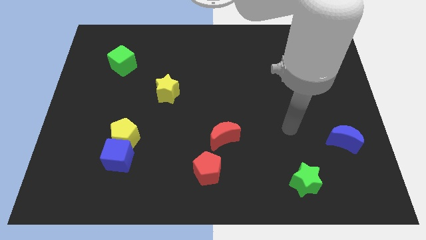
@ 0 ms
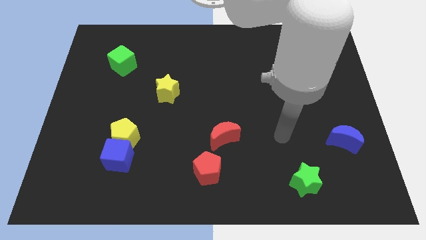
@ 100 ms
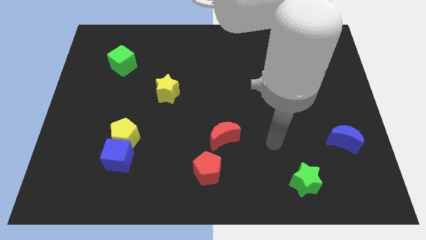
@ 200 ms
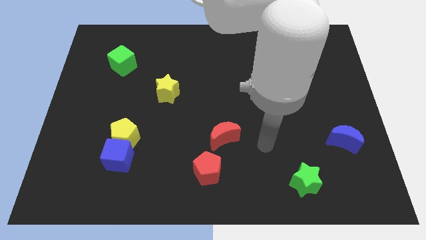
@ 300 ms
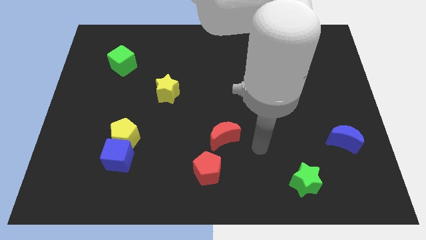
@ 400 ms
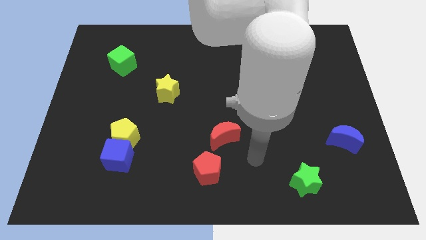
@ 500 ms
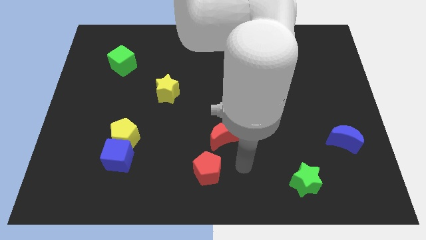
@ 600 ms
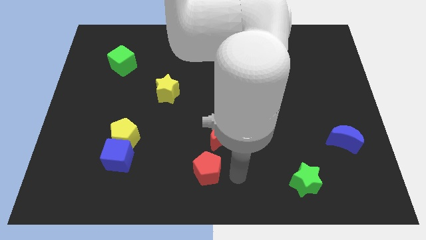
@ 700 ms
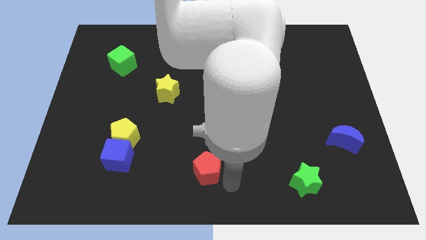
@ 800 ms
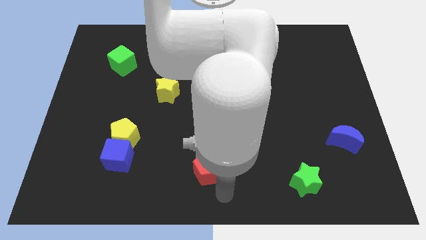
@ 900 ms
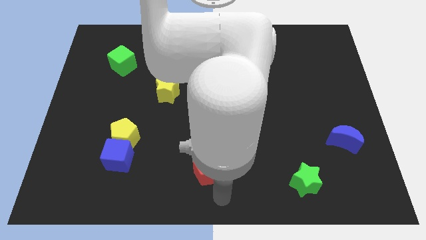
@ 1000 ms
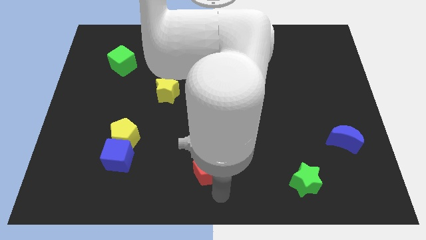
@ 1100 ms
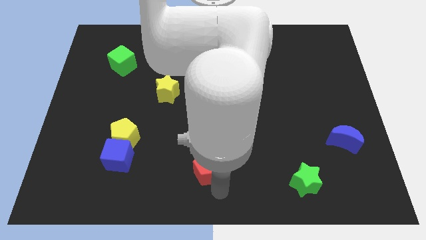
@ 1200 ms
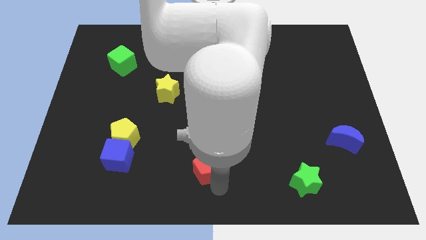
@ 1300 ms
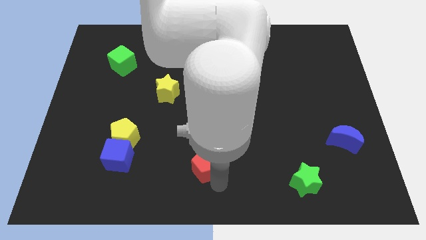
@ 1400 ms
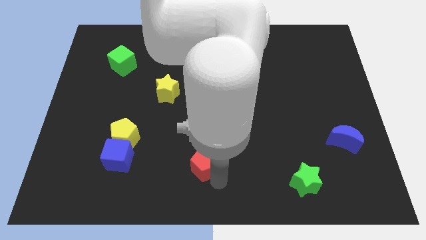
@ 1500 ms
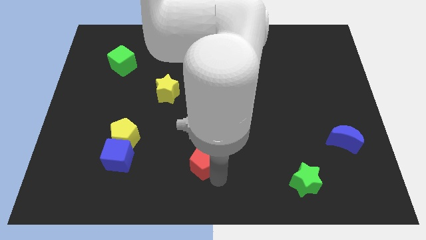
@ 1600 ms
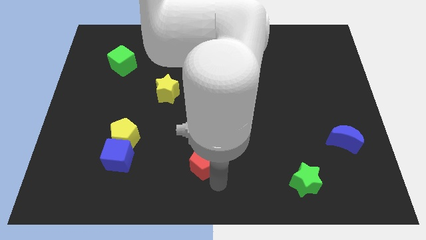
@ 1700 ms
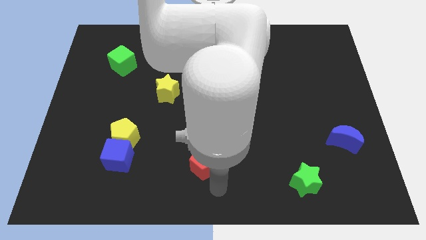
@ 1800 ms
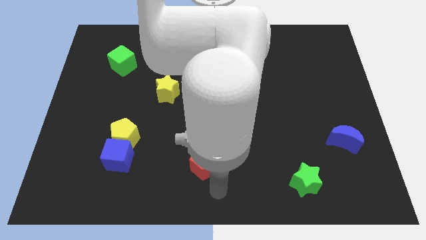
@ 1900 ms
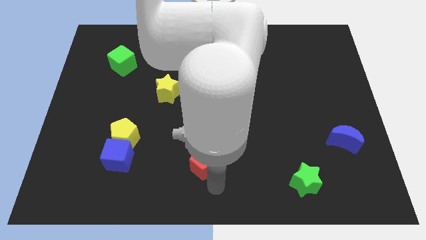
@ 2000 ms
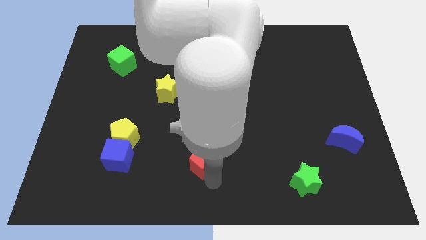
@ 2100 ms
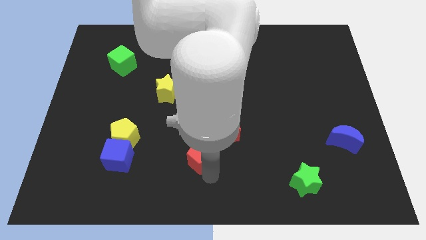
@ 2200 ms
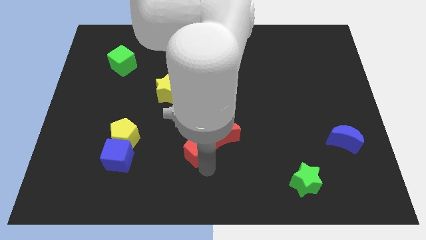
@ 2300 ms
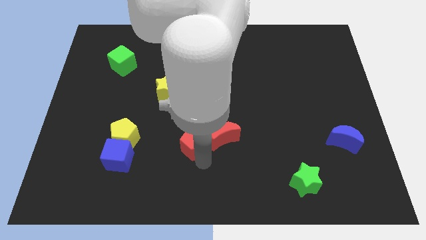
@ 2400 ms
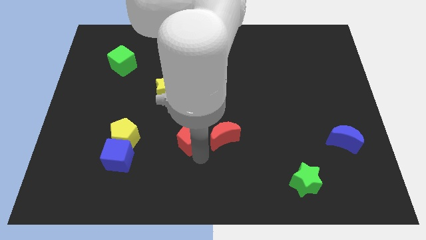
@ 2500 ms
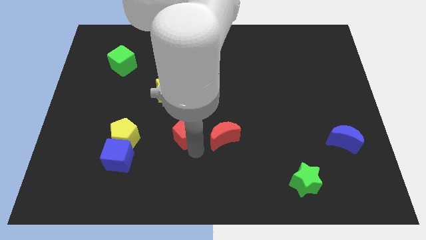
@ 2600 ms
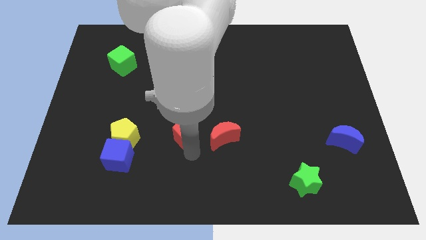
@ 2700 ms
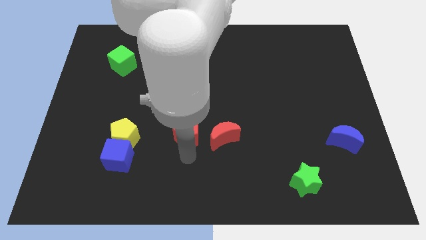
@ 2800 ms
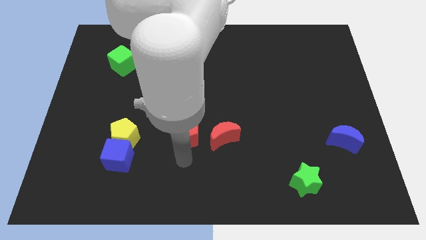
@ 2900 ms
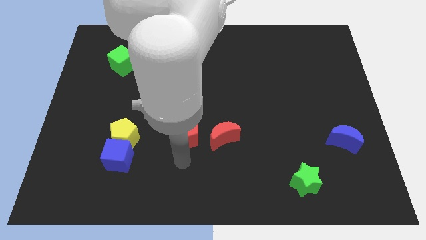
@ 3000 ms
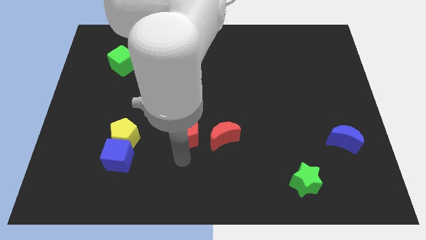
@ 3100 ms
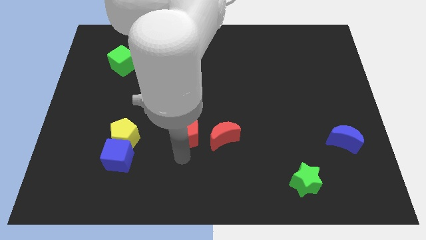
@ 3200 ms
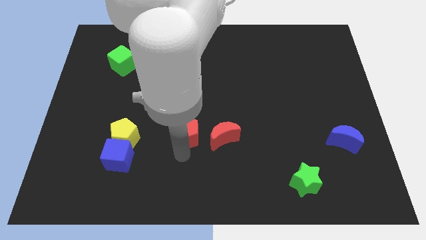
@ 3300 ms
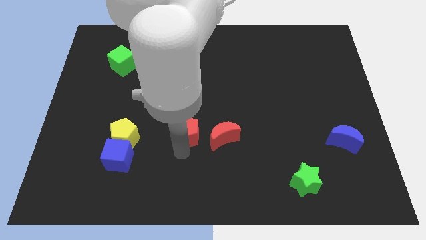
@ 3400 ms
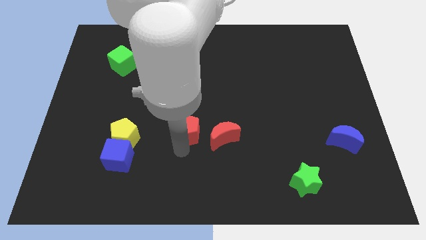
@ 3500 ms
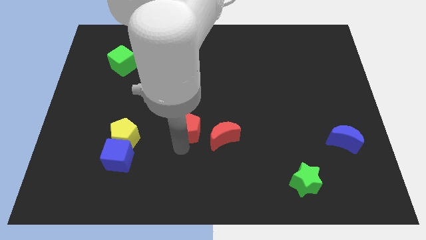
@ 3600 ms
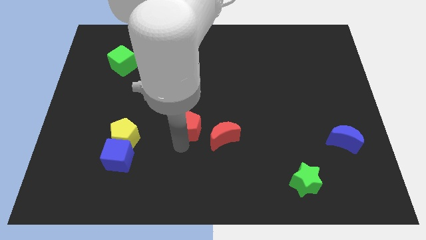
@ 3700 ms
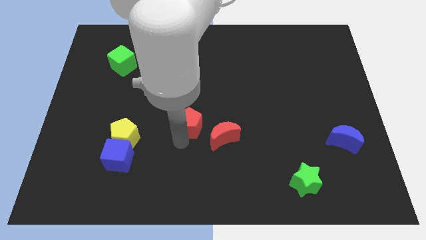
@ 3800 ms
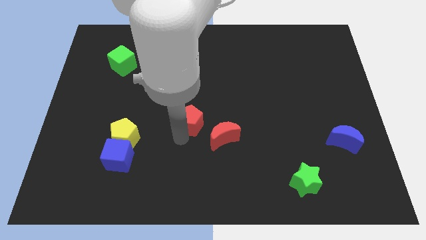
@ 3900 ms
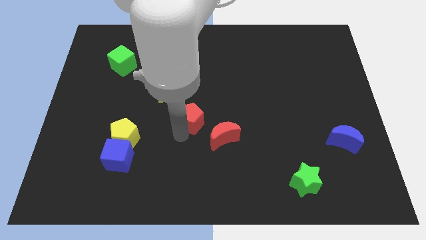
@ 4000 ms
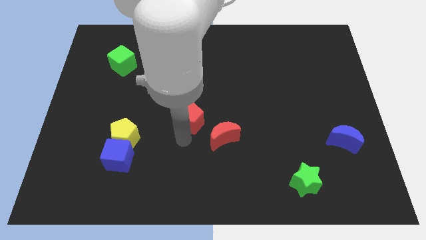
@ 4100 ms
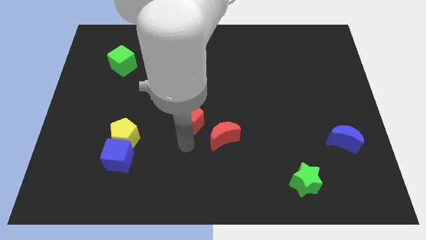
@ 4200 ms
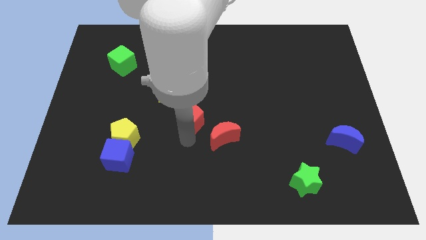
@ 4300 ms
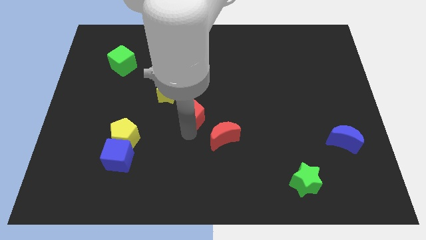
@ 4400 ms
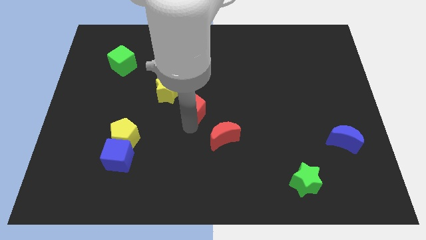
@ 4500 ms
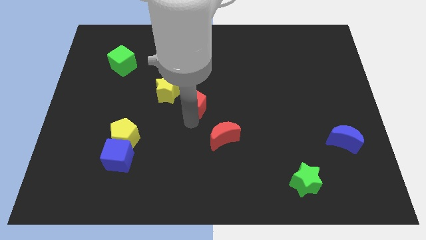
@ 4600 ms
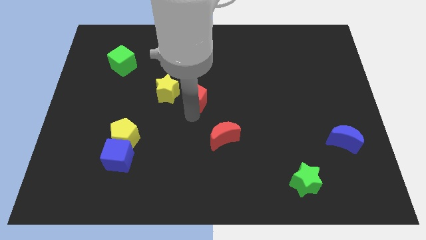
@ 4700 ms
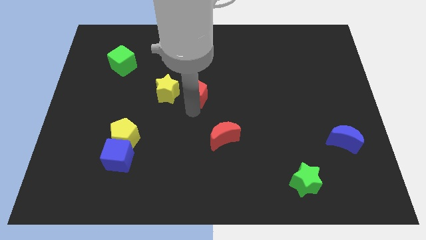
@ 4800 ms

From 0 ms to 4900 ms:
move the red pentagon upwards

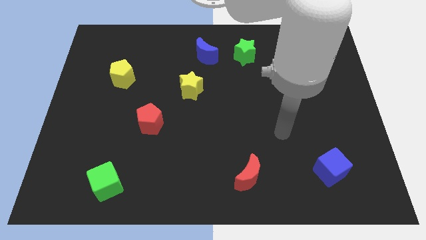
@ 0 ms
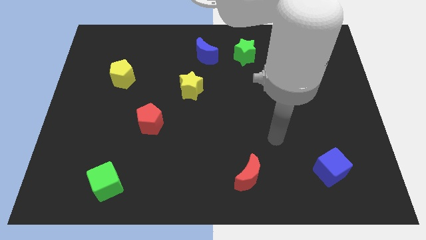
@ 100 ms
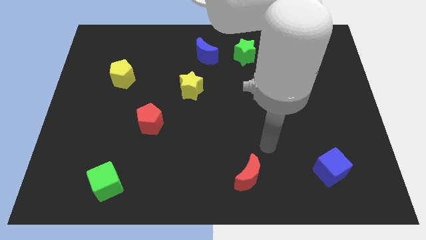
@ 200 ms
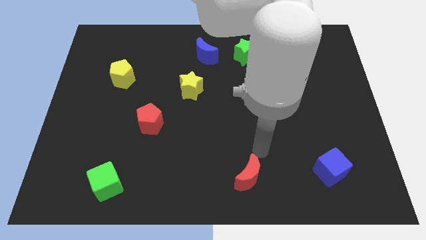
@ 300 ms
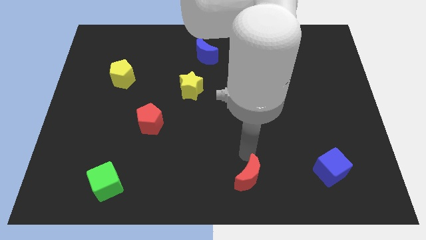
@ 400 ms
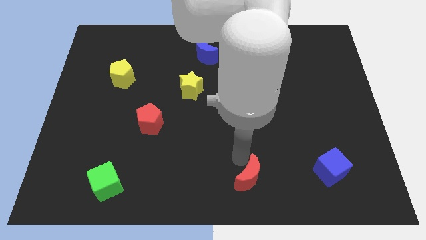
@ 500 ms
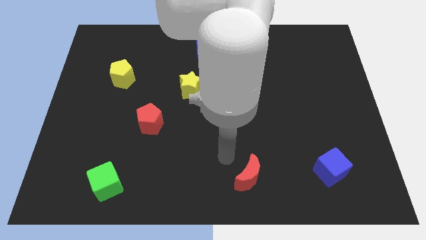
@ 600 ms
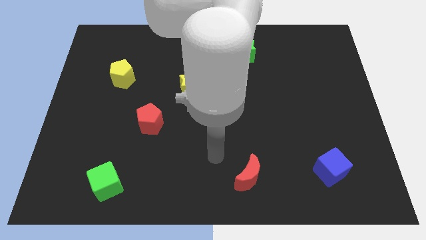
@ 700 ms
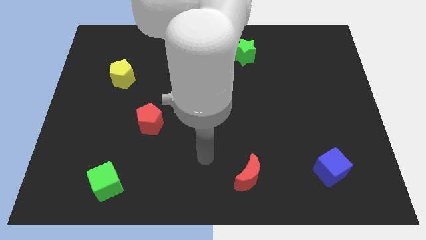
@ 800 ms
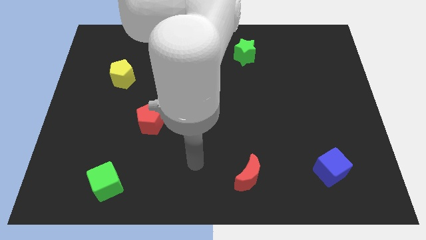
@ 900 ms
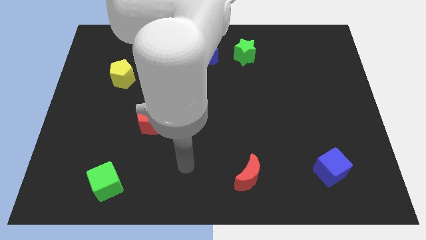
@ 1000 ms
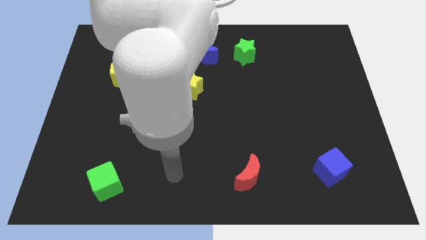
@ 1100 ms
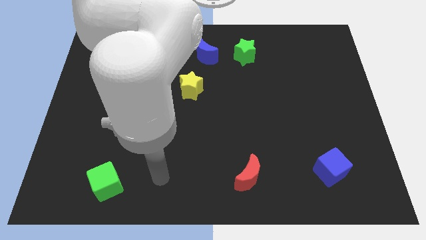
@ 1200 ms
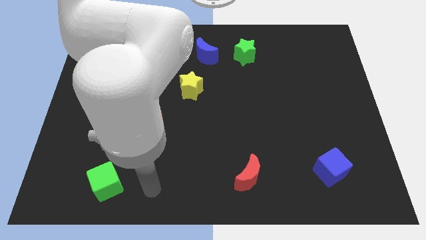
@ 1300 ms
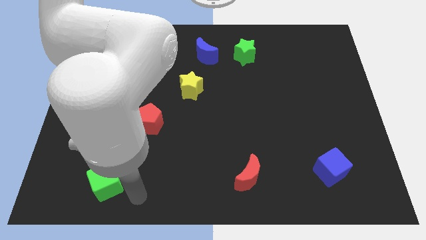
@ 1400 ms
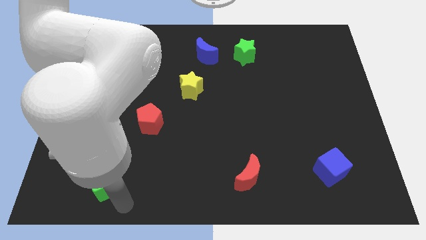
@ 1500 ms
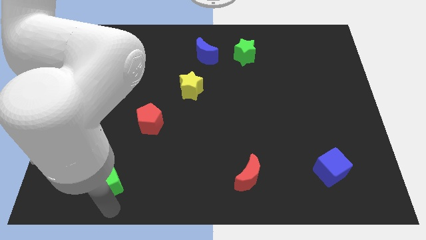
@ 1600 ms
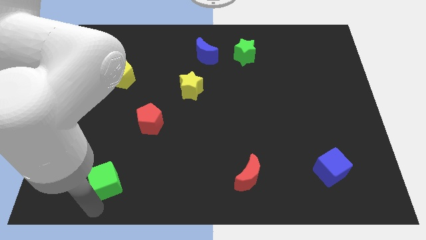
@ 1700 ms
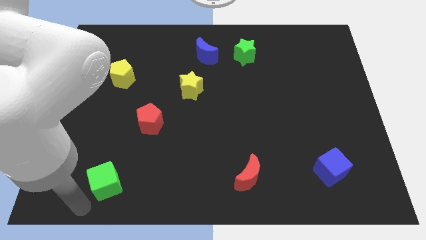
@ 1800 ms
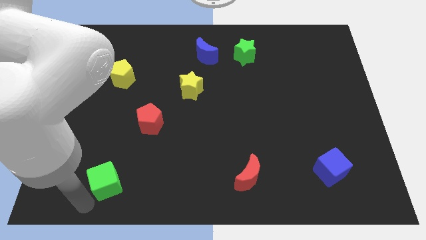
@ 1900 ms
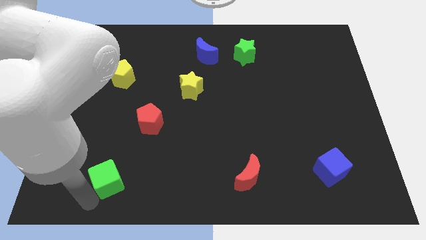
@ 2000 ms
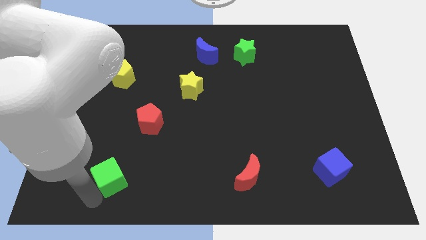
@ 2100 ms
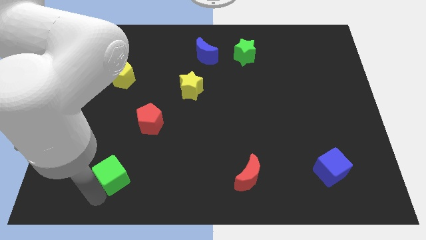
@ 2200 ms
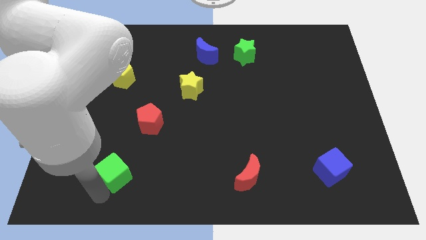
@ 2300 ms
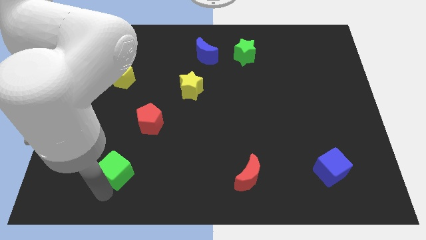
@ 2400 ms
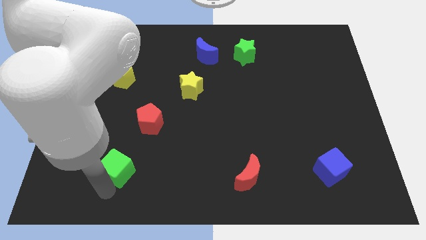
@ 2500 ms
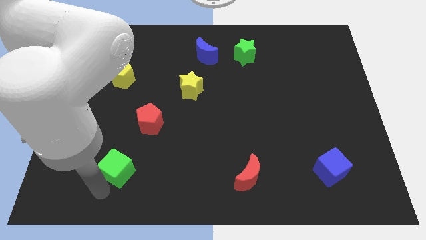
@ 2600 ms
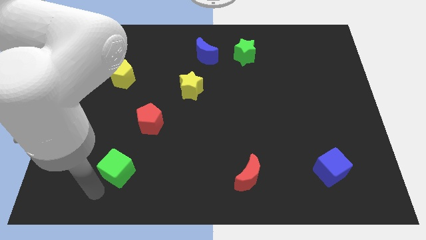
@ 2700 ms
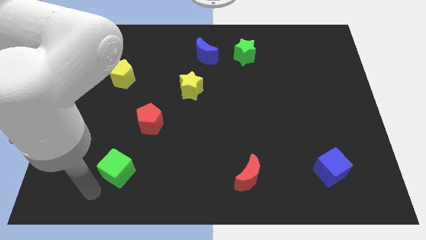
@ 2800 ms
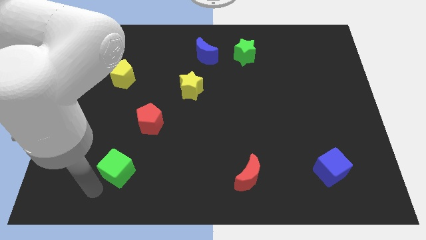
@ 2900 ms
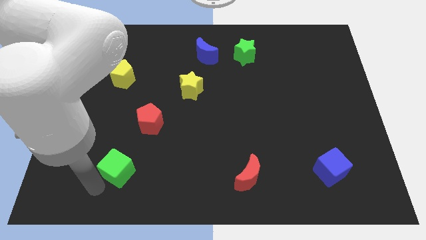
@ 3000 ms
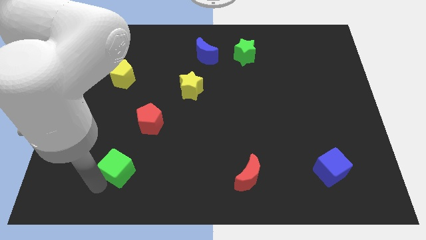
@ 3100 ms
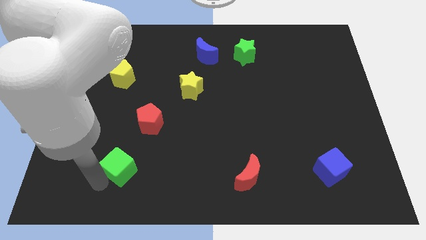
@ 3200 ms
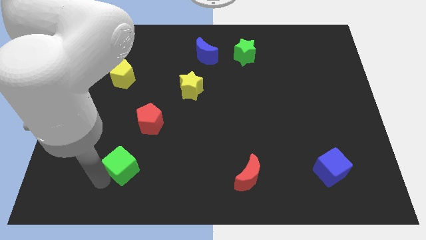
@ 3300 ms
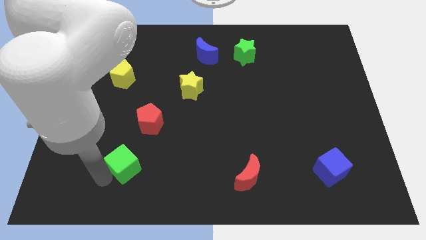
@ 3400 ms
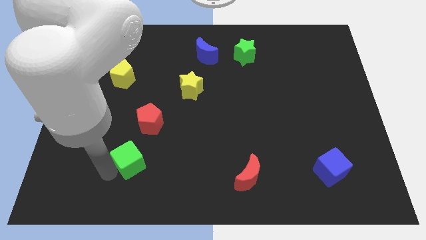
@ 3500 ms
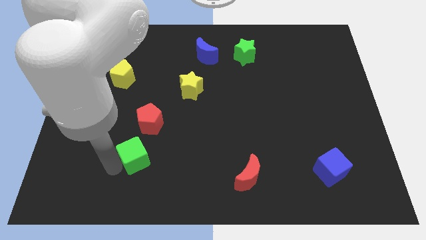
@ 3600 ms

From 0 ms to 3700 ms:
slightly slide the green cube up and right diagonally
